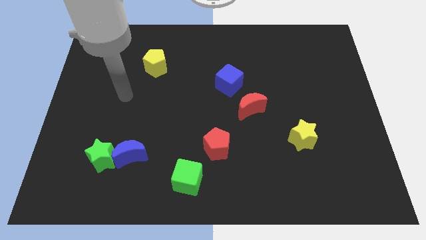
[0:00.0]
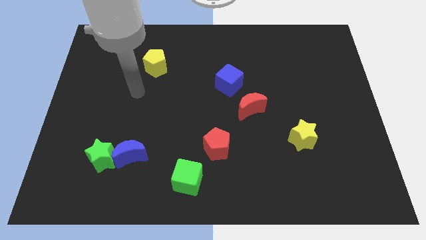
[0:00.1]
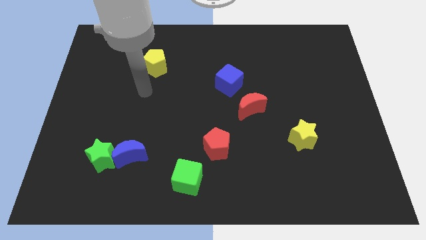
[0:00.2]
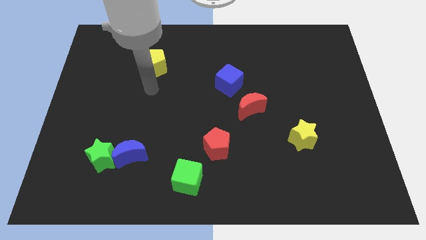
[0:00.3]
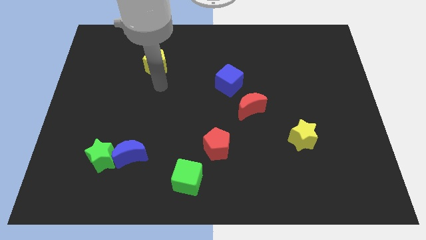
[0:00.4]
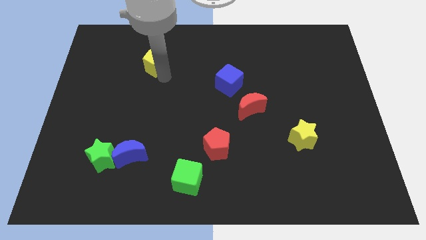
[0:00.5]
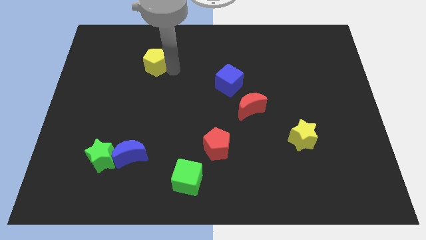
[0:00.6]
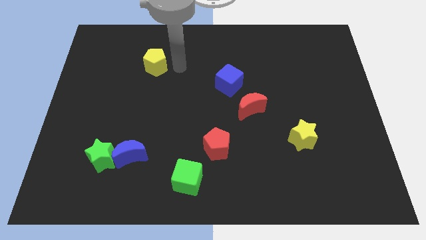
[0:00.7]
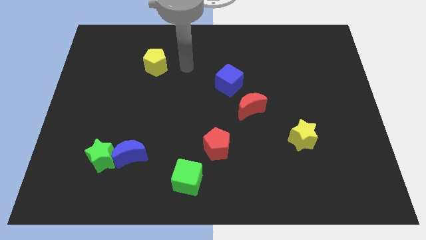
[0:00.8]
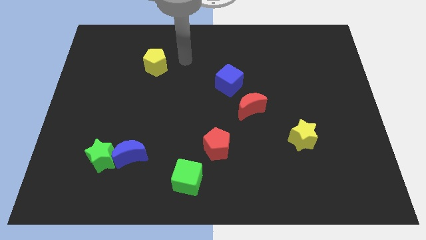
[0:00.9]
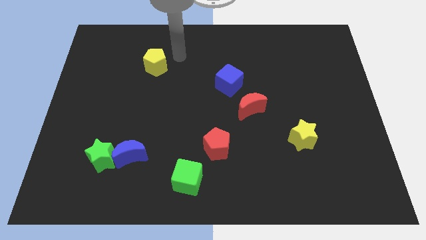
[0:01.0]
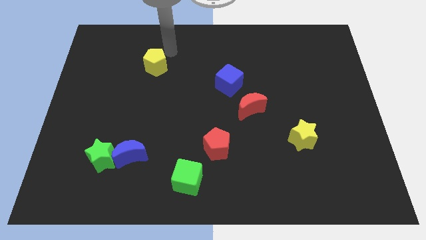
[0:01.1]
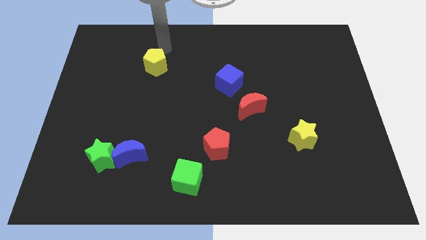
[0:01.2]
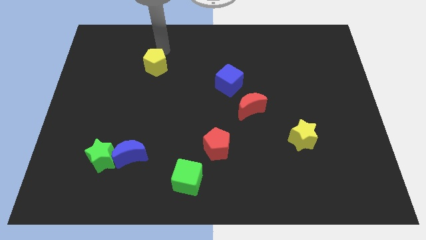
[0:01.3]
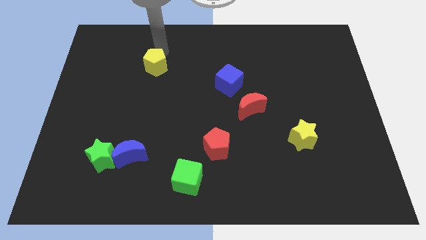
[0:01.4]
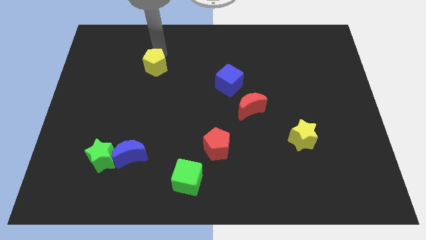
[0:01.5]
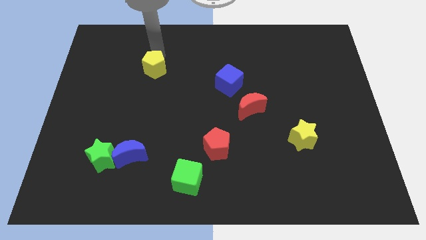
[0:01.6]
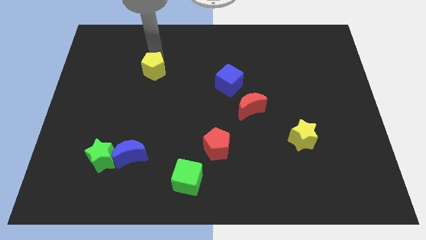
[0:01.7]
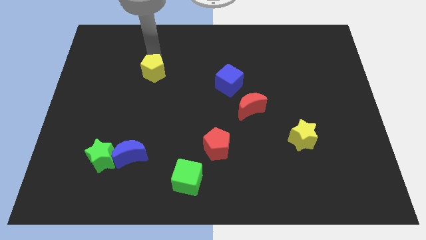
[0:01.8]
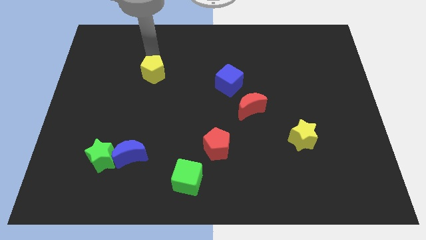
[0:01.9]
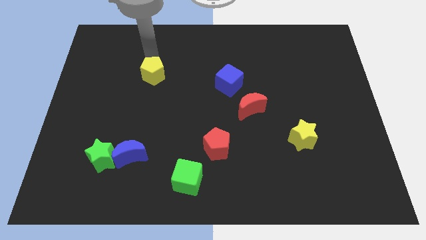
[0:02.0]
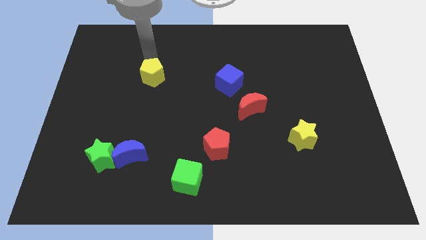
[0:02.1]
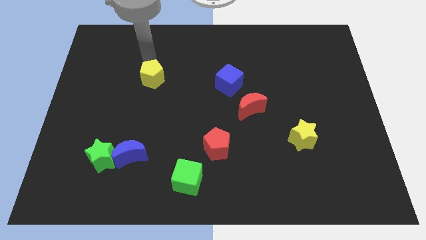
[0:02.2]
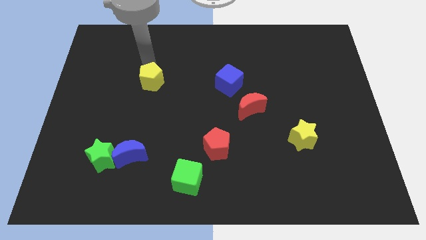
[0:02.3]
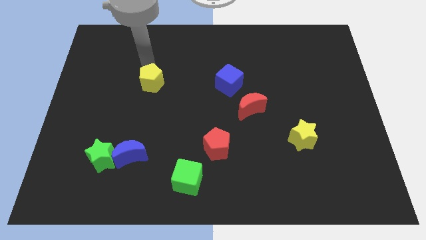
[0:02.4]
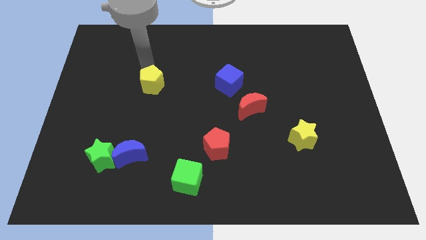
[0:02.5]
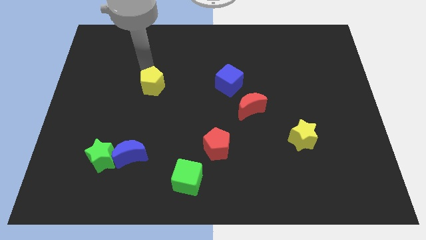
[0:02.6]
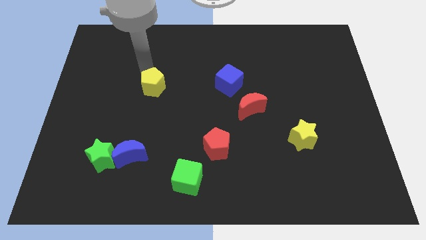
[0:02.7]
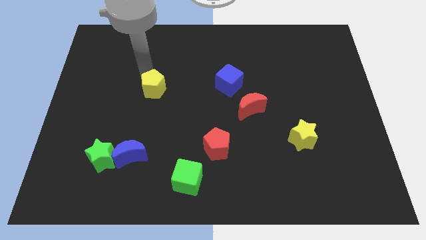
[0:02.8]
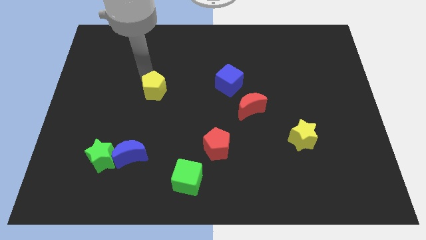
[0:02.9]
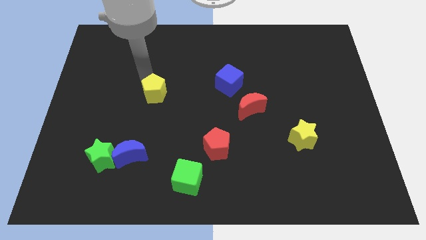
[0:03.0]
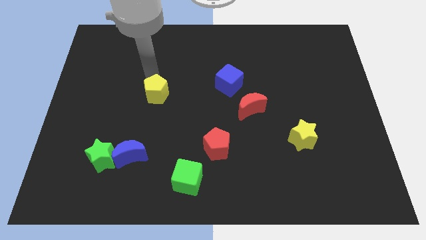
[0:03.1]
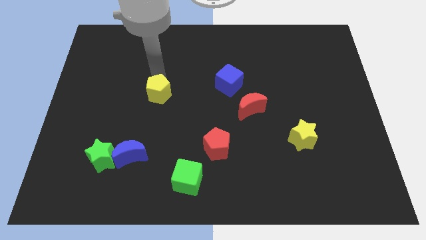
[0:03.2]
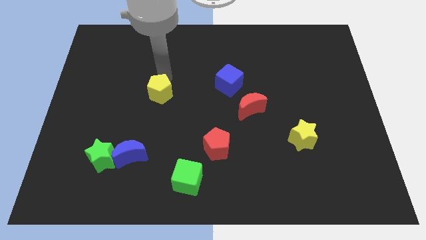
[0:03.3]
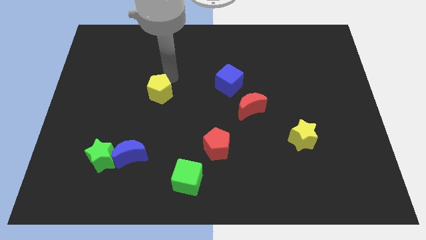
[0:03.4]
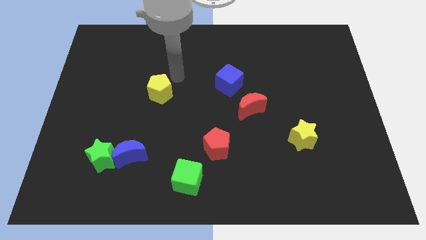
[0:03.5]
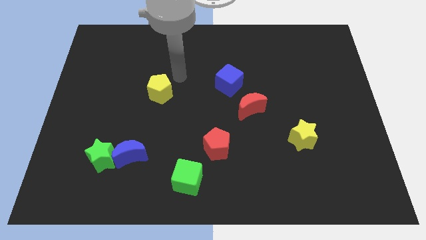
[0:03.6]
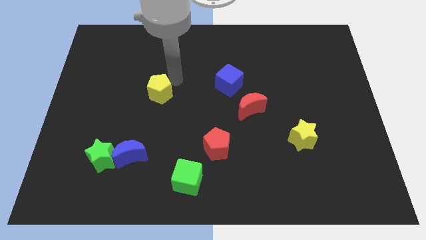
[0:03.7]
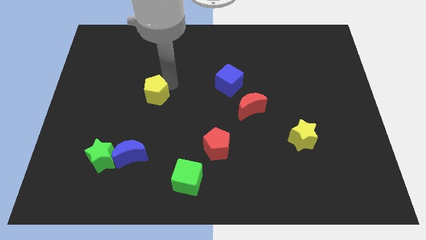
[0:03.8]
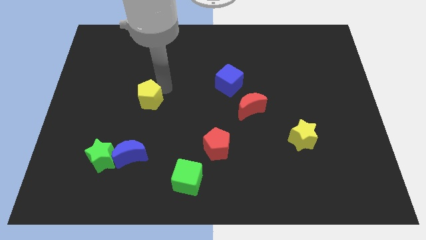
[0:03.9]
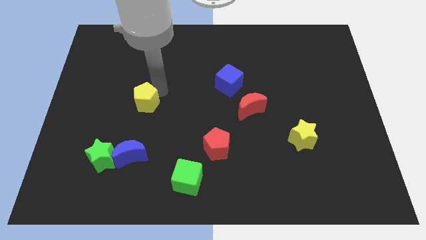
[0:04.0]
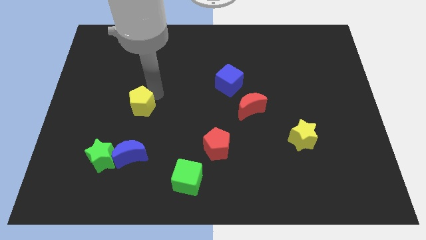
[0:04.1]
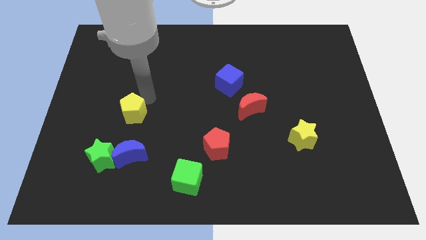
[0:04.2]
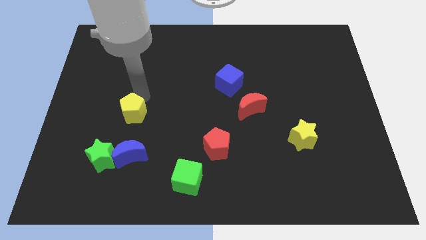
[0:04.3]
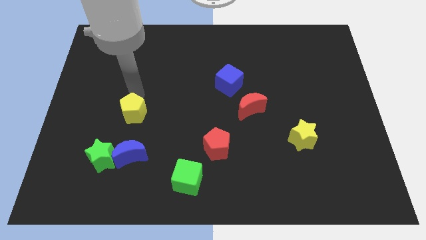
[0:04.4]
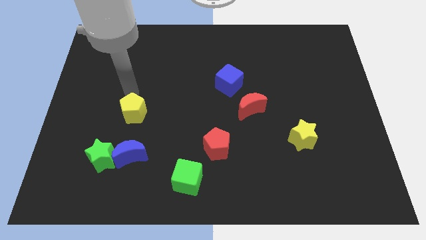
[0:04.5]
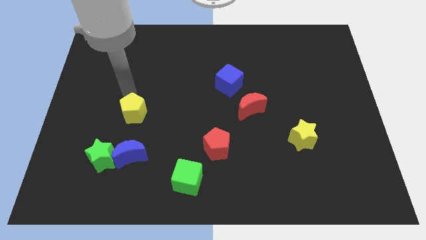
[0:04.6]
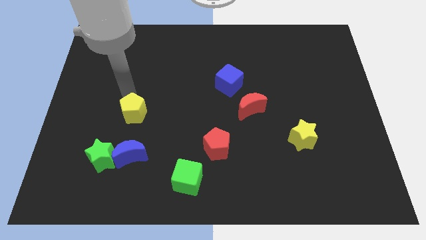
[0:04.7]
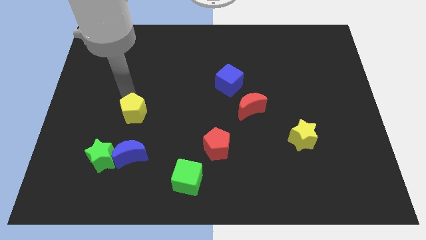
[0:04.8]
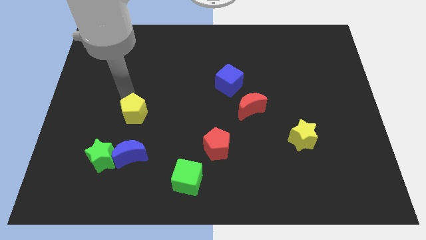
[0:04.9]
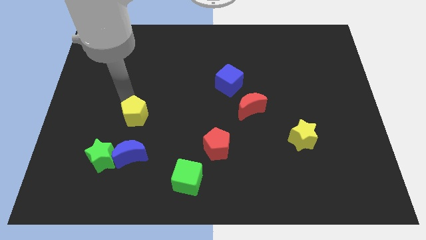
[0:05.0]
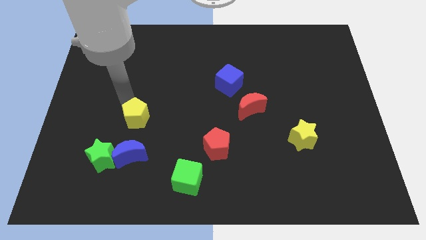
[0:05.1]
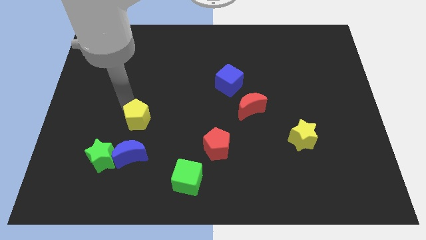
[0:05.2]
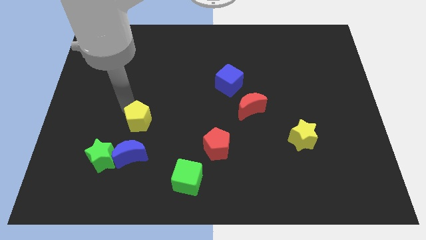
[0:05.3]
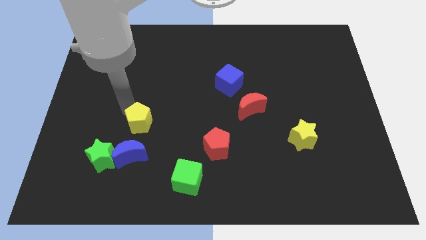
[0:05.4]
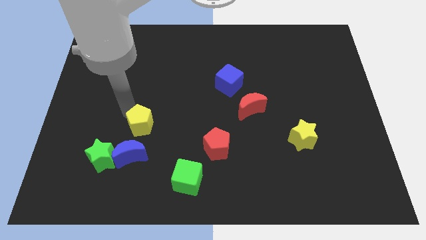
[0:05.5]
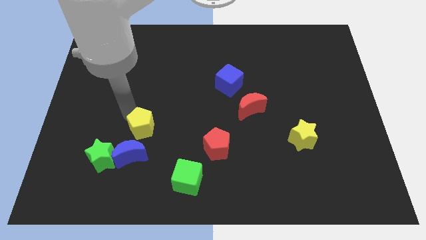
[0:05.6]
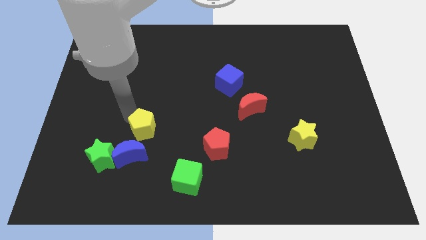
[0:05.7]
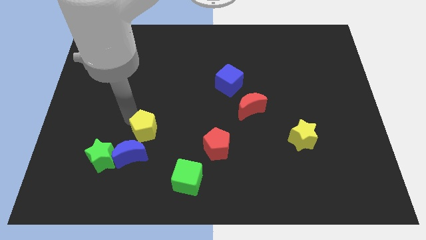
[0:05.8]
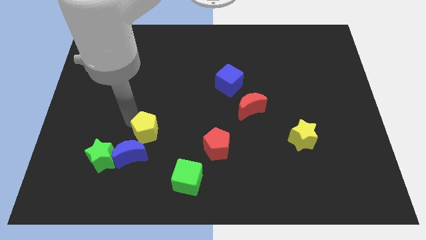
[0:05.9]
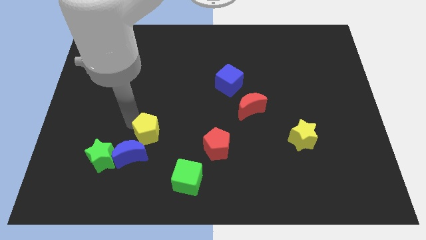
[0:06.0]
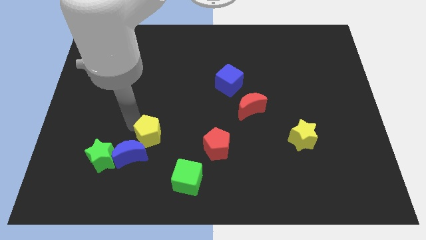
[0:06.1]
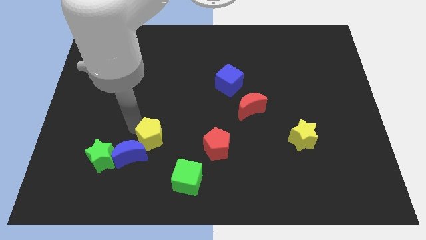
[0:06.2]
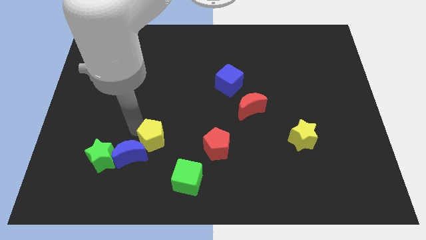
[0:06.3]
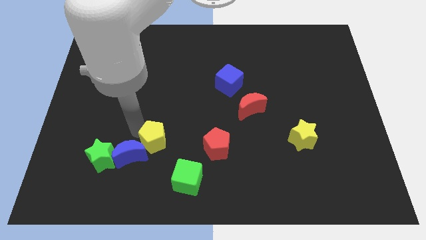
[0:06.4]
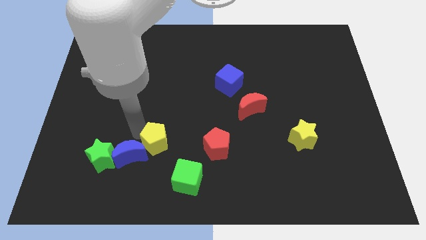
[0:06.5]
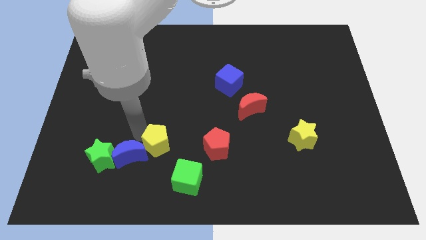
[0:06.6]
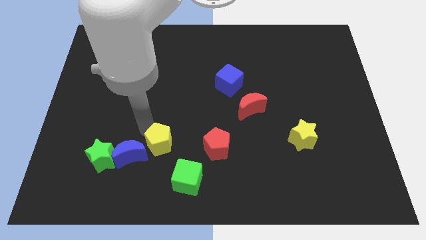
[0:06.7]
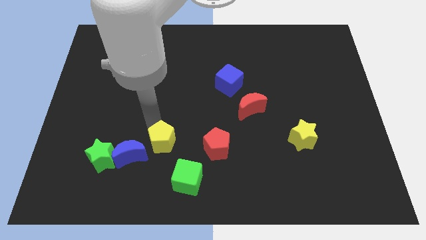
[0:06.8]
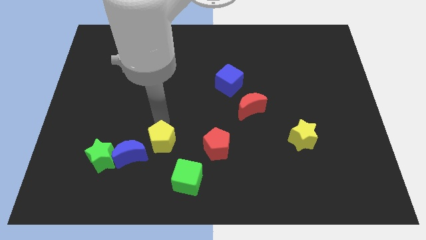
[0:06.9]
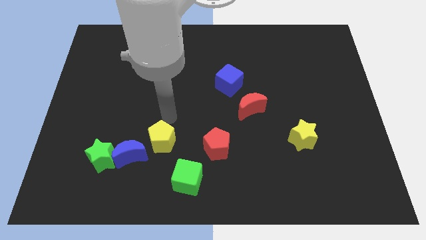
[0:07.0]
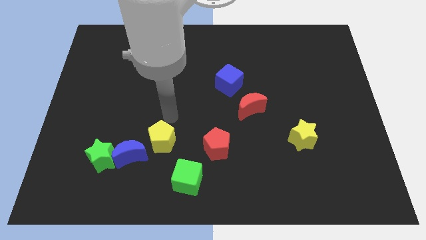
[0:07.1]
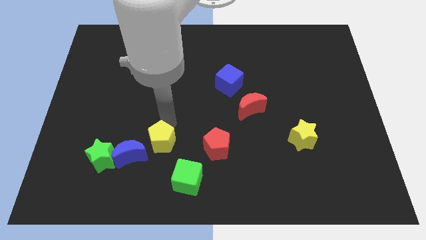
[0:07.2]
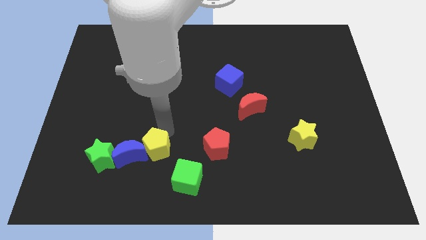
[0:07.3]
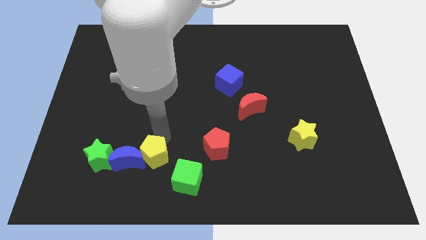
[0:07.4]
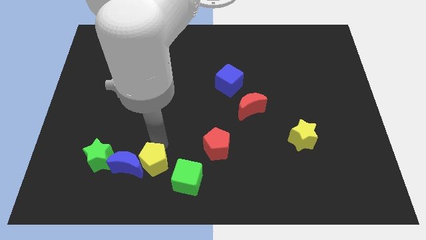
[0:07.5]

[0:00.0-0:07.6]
slide the yellow pentagon to the bottom right of the blue moon
